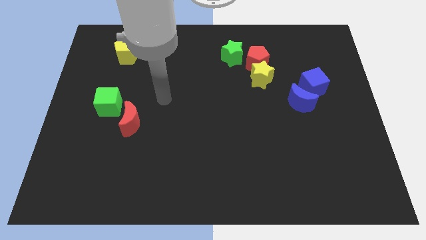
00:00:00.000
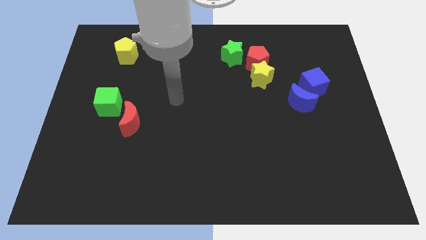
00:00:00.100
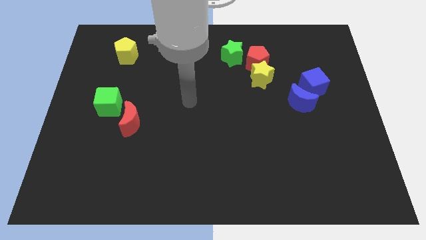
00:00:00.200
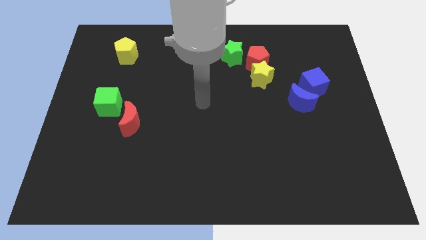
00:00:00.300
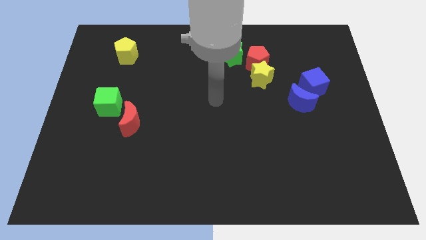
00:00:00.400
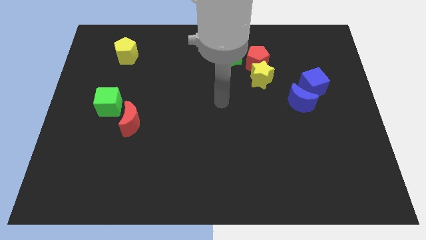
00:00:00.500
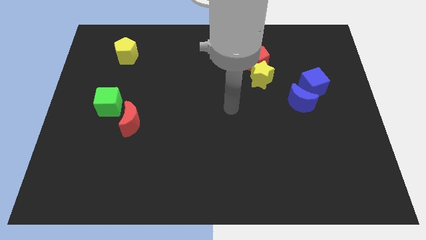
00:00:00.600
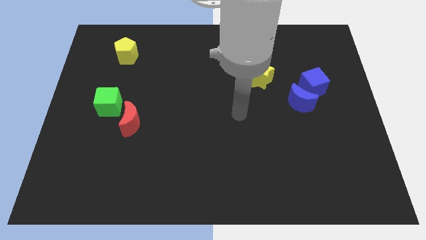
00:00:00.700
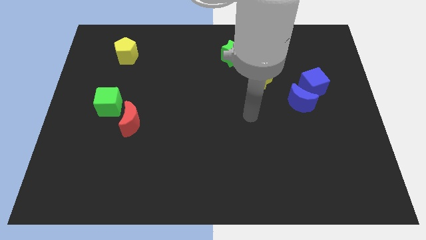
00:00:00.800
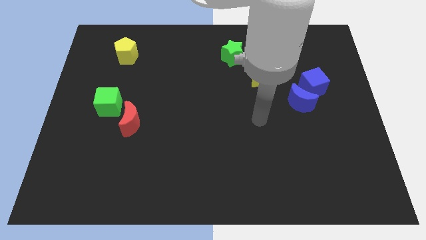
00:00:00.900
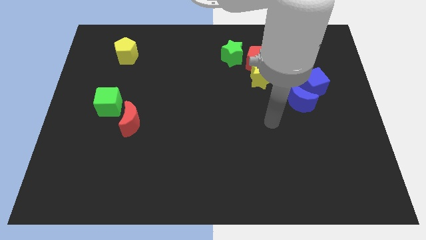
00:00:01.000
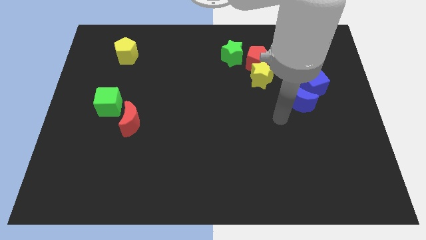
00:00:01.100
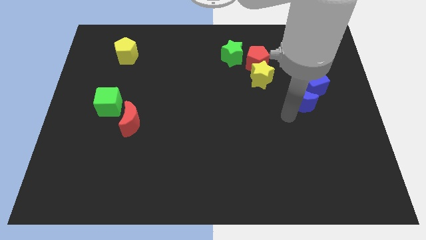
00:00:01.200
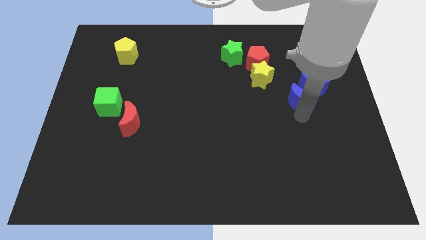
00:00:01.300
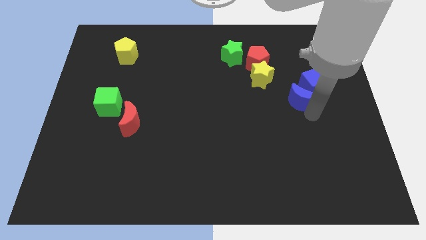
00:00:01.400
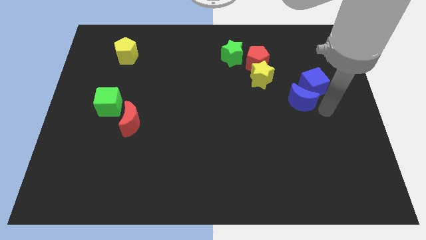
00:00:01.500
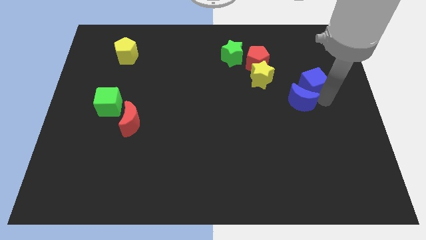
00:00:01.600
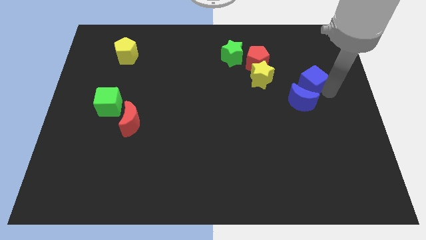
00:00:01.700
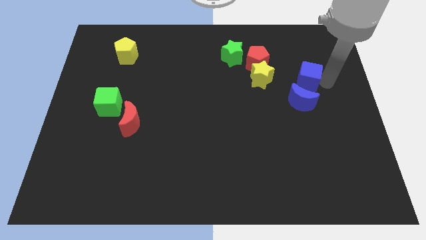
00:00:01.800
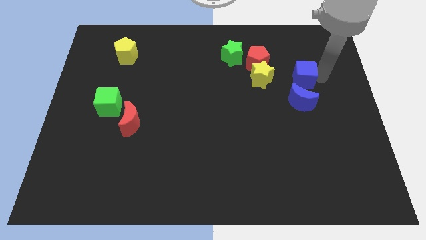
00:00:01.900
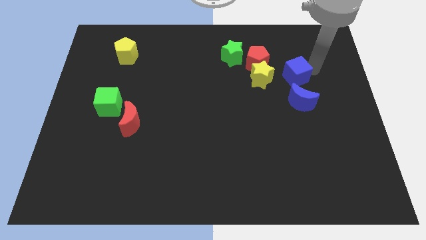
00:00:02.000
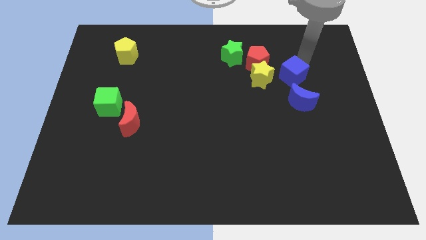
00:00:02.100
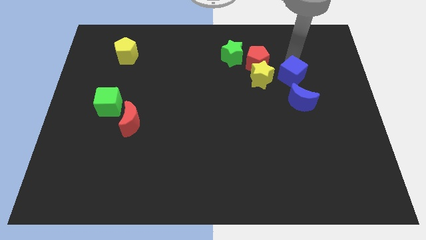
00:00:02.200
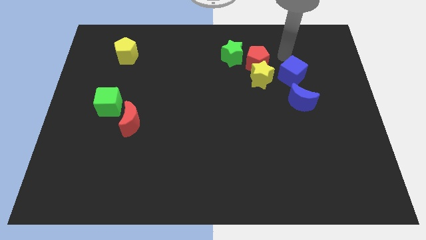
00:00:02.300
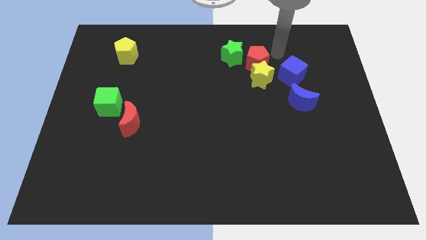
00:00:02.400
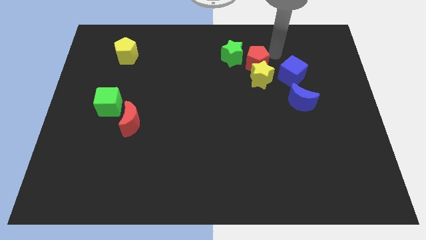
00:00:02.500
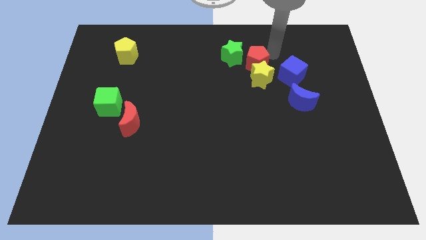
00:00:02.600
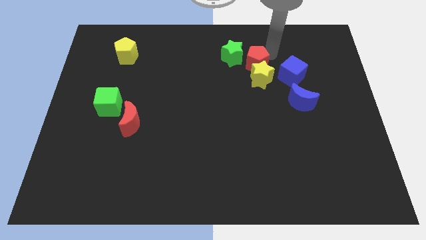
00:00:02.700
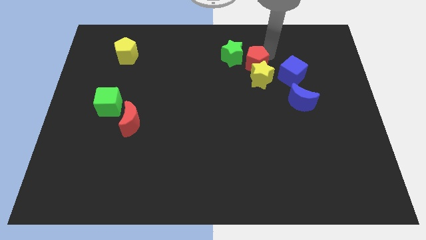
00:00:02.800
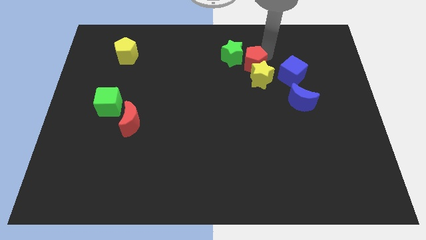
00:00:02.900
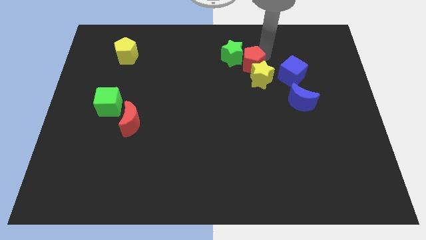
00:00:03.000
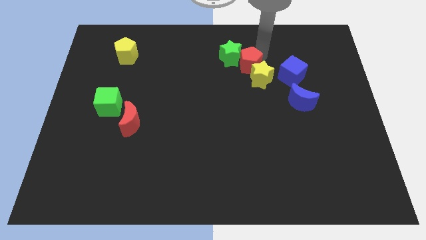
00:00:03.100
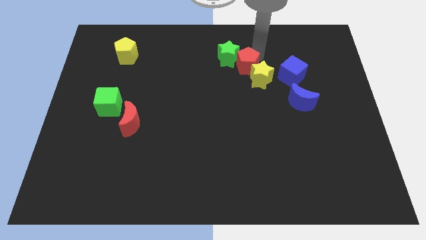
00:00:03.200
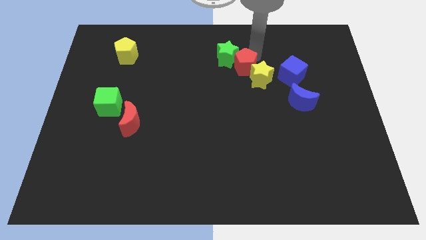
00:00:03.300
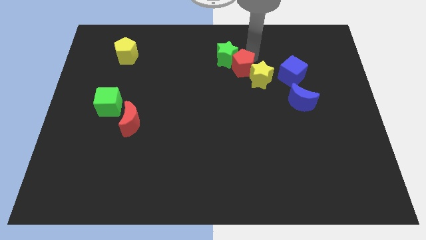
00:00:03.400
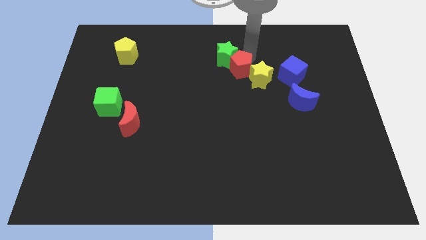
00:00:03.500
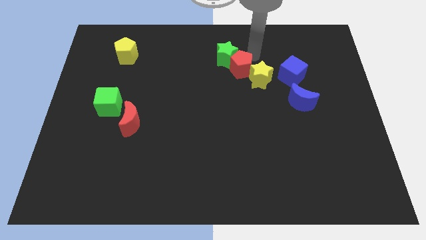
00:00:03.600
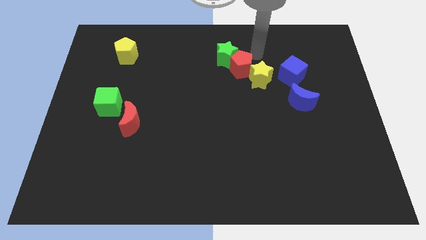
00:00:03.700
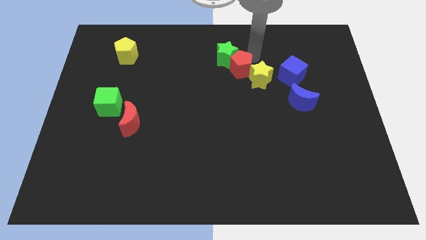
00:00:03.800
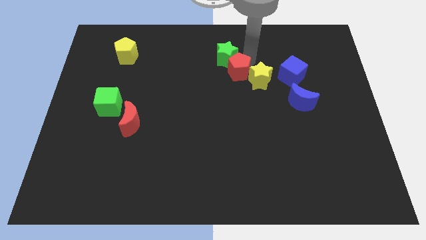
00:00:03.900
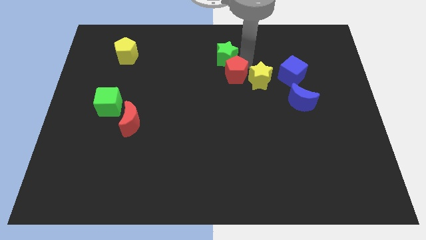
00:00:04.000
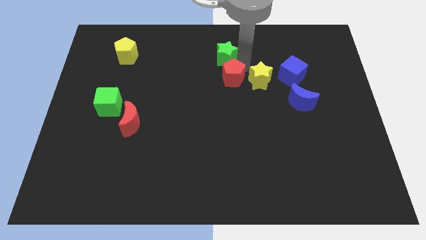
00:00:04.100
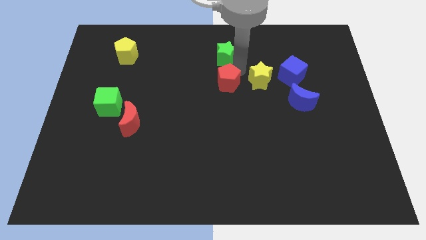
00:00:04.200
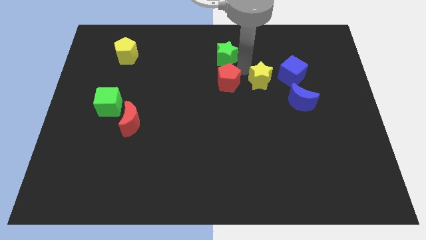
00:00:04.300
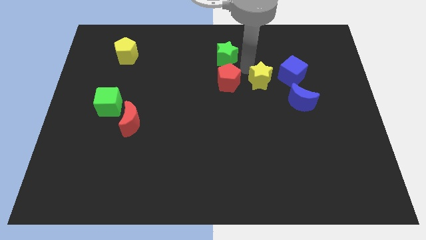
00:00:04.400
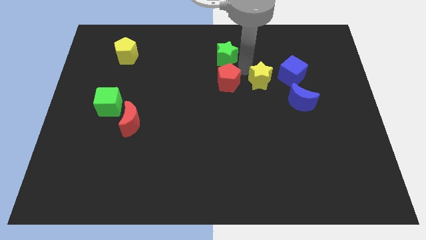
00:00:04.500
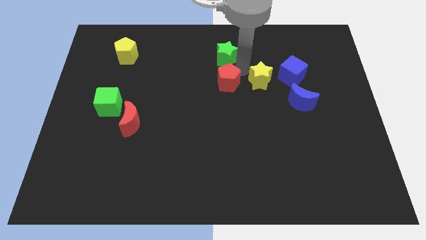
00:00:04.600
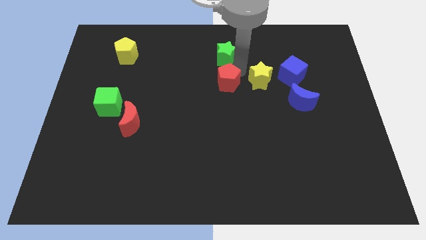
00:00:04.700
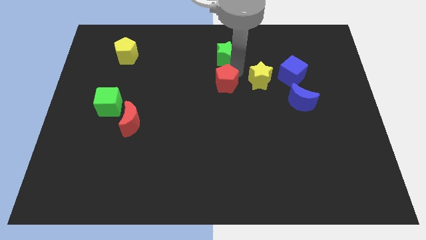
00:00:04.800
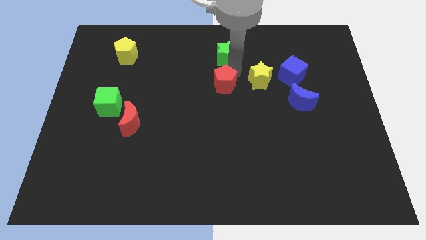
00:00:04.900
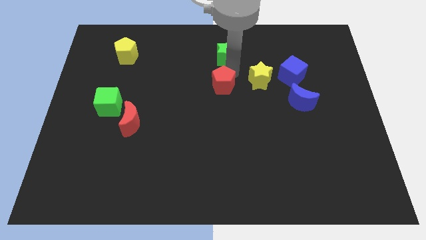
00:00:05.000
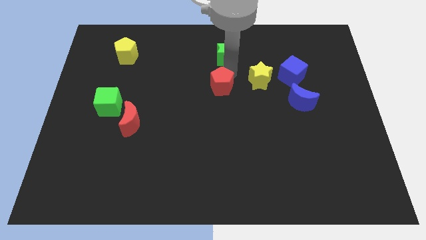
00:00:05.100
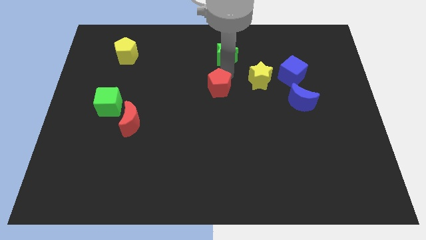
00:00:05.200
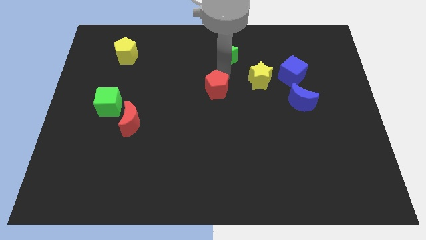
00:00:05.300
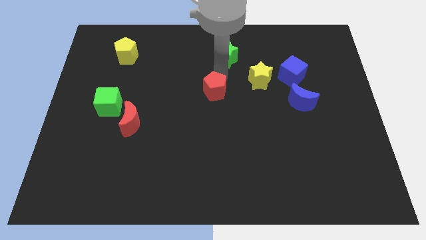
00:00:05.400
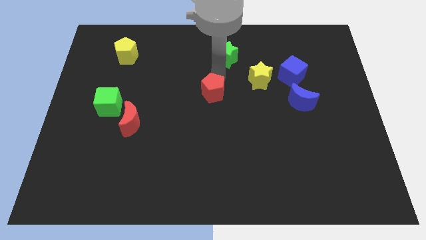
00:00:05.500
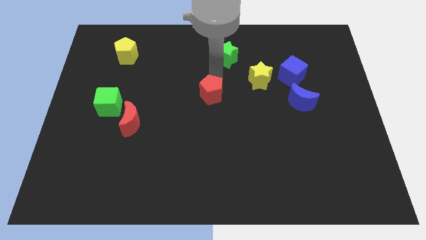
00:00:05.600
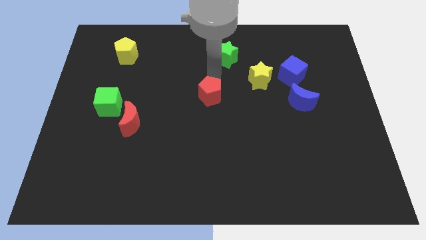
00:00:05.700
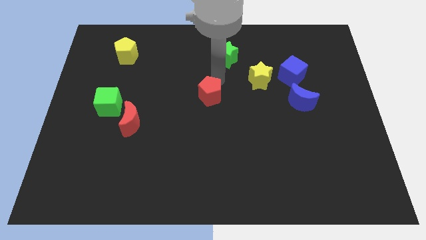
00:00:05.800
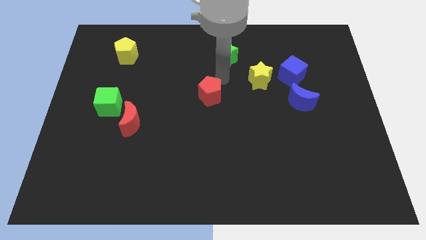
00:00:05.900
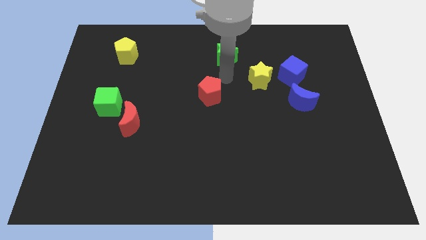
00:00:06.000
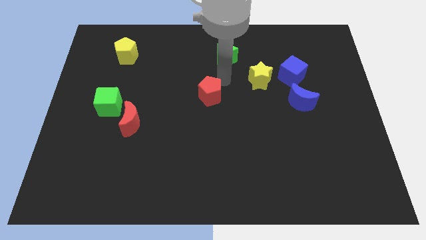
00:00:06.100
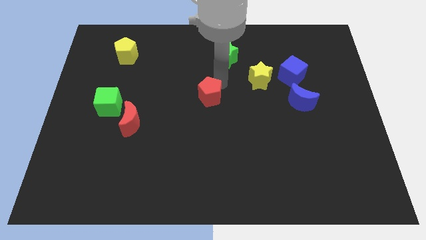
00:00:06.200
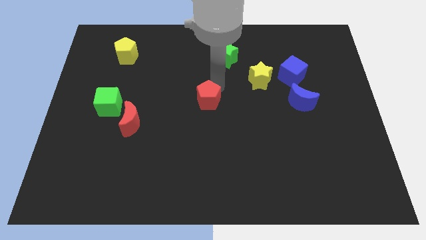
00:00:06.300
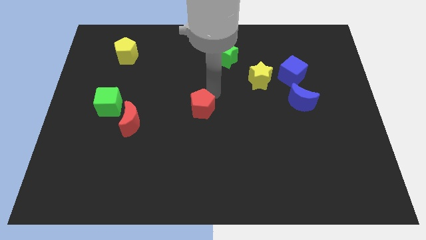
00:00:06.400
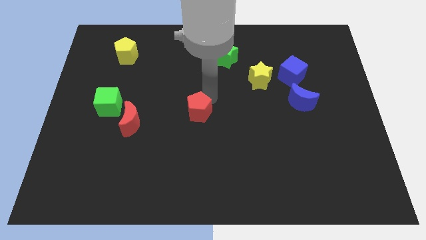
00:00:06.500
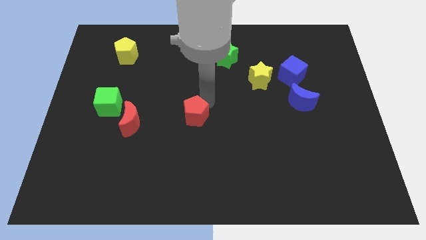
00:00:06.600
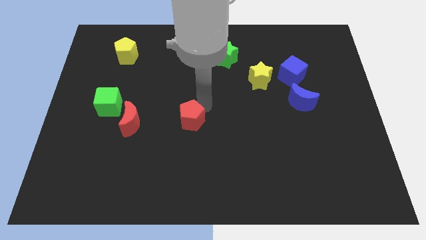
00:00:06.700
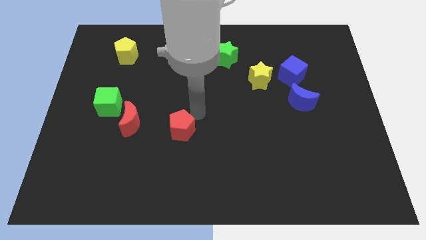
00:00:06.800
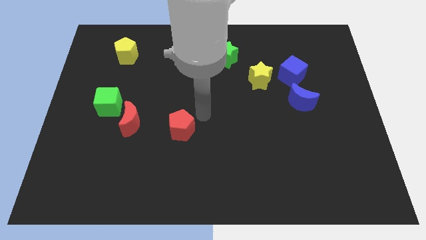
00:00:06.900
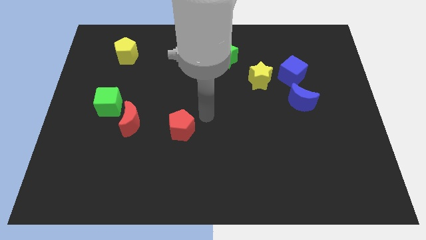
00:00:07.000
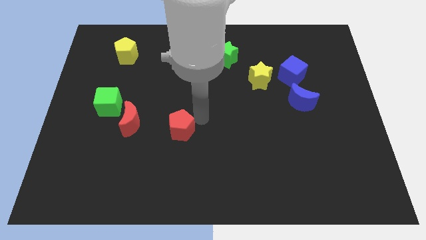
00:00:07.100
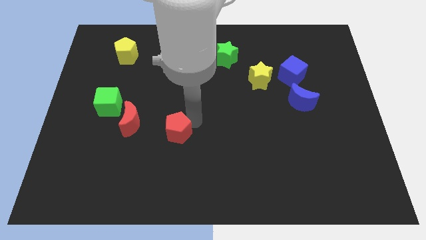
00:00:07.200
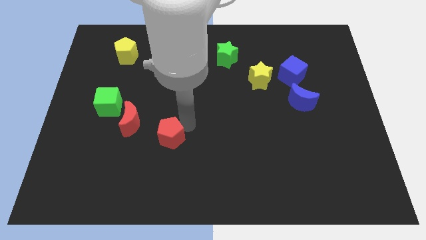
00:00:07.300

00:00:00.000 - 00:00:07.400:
slide the red pentagon to the bottom right side of the red moon

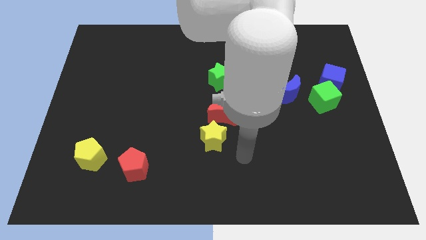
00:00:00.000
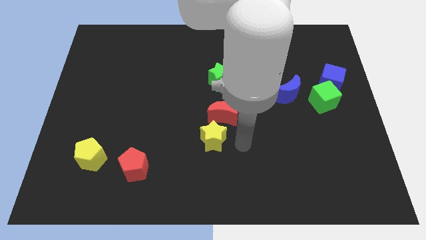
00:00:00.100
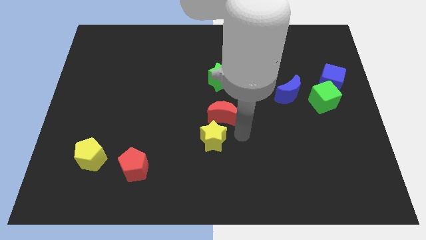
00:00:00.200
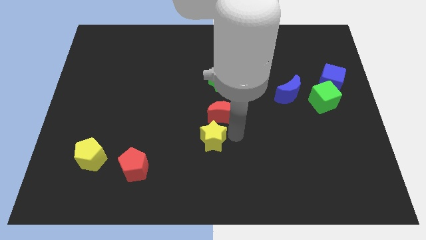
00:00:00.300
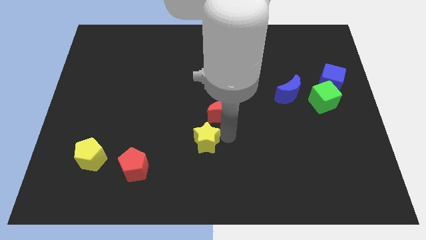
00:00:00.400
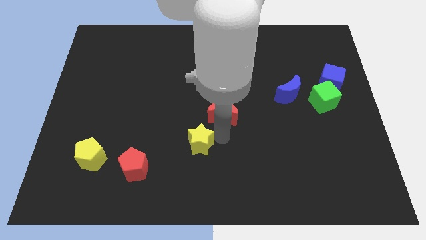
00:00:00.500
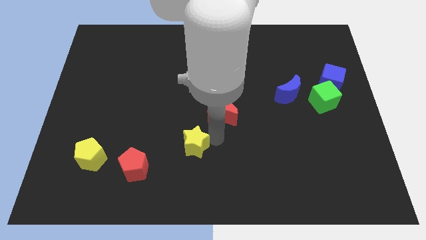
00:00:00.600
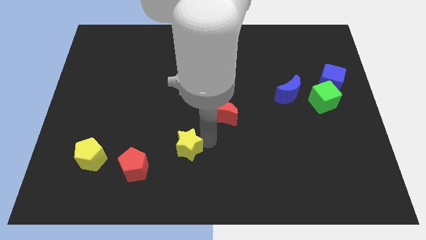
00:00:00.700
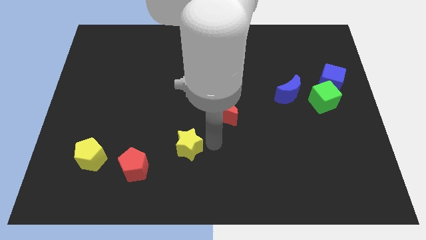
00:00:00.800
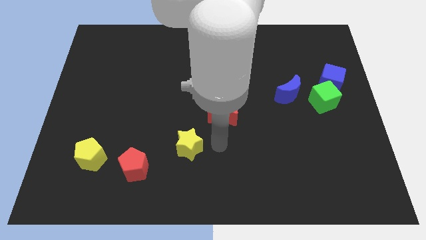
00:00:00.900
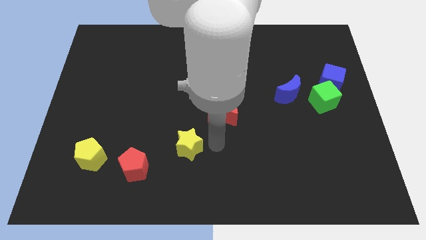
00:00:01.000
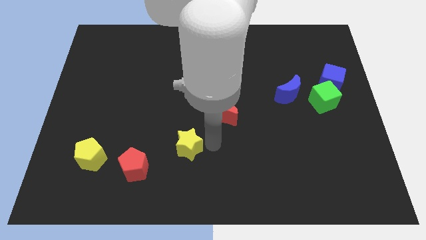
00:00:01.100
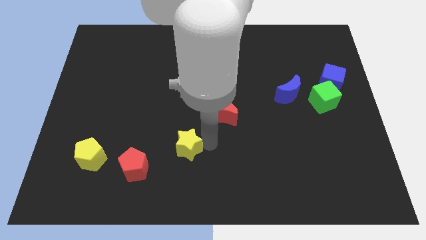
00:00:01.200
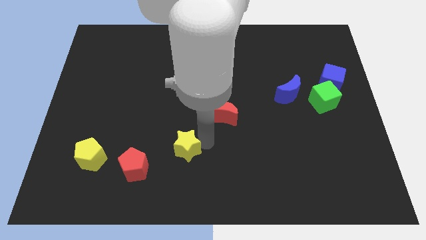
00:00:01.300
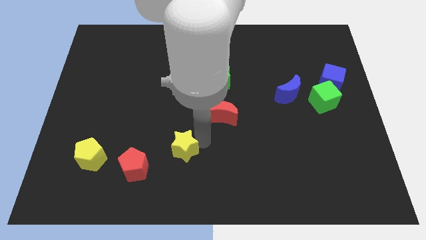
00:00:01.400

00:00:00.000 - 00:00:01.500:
put the yellow star diagonally up and to the right of the red pentagon
